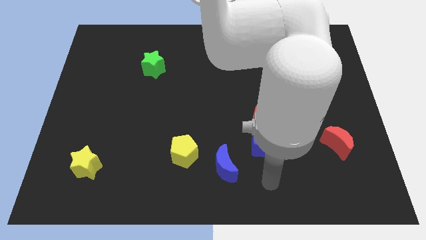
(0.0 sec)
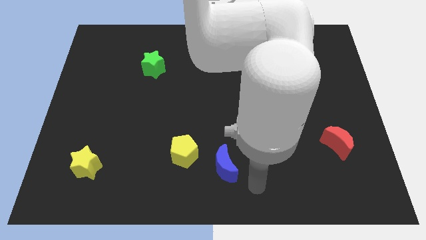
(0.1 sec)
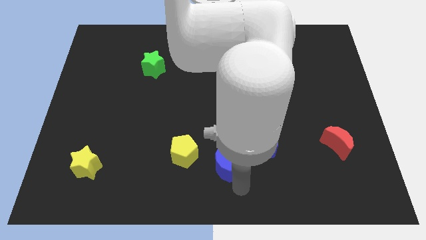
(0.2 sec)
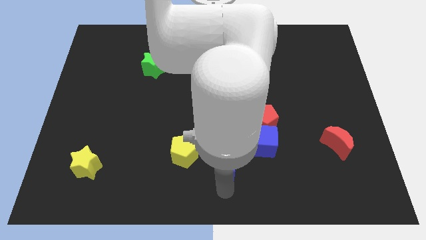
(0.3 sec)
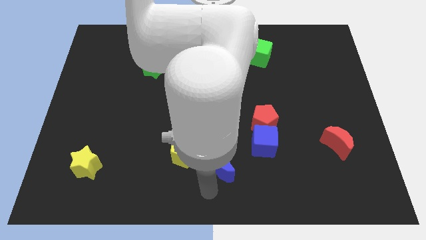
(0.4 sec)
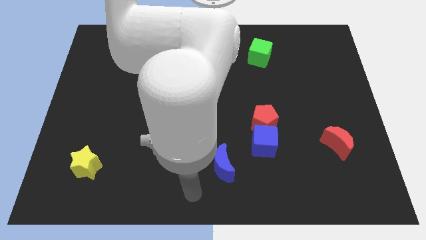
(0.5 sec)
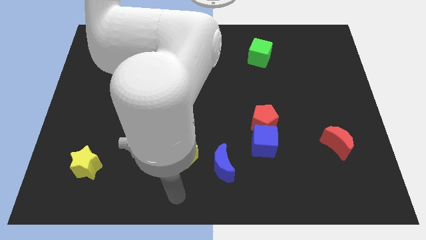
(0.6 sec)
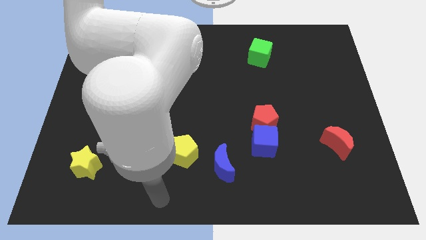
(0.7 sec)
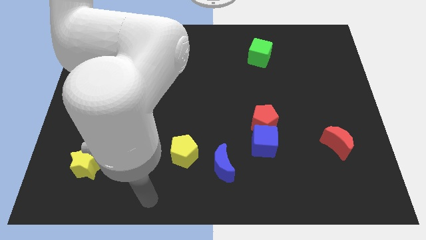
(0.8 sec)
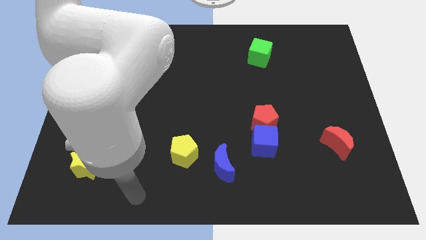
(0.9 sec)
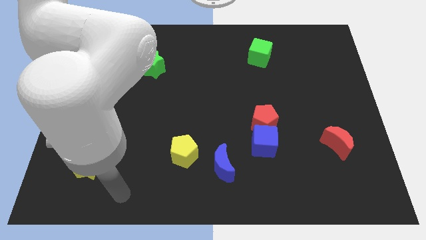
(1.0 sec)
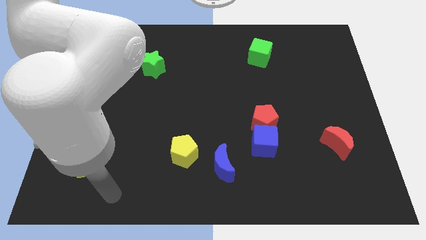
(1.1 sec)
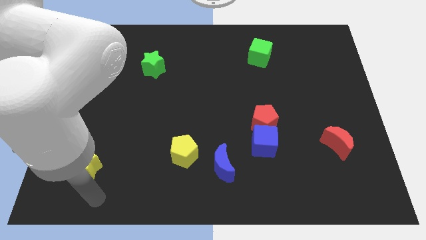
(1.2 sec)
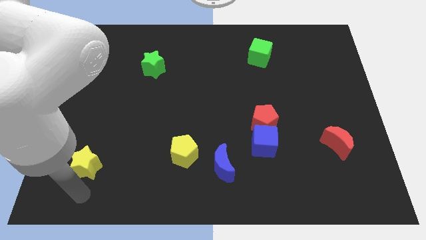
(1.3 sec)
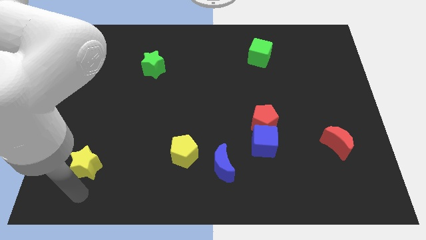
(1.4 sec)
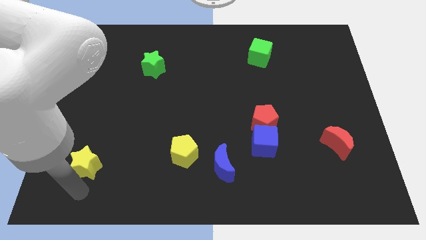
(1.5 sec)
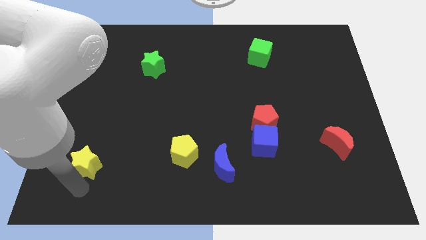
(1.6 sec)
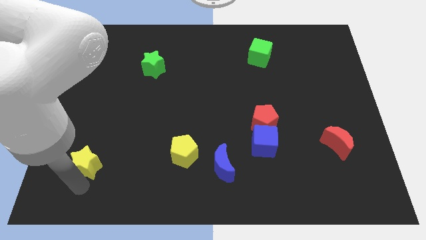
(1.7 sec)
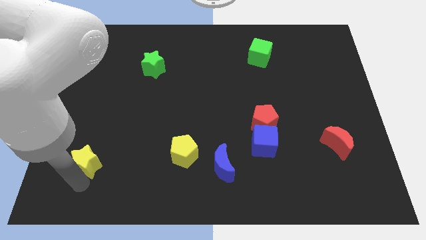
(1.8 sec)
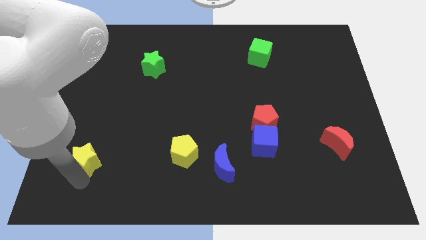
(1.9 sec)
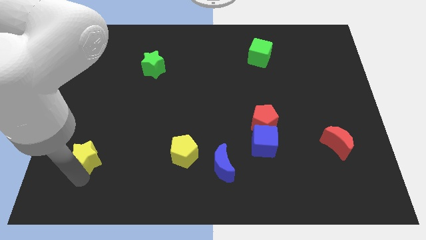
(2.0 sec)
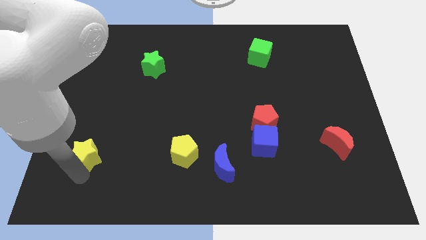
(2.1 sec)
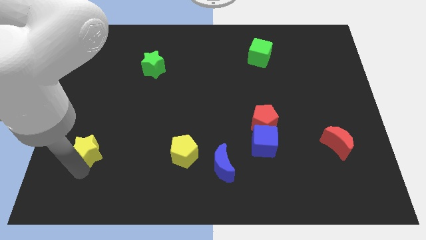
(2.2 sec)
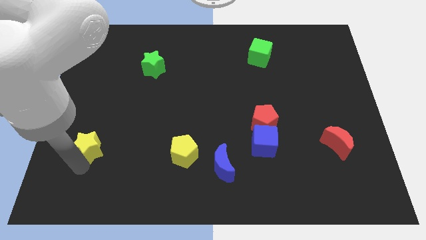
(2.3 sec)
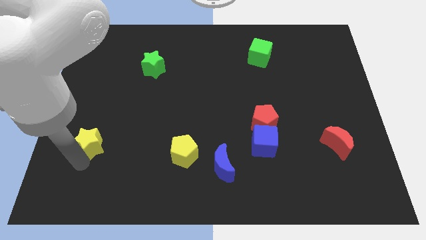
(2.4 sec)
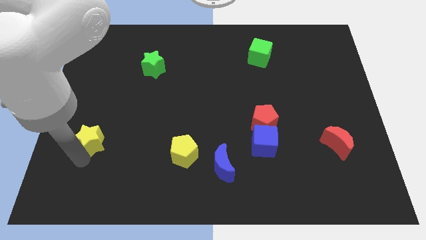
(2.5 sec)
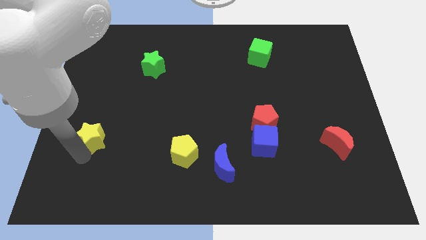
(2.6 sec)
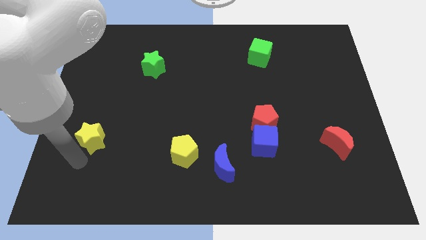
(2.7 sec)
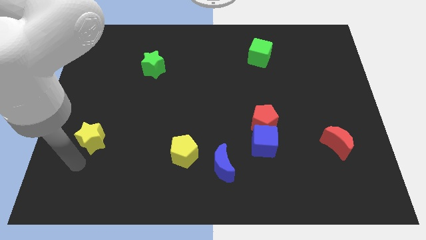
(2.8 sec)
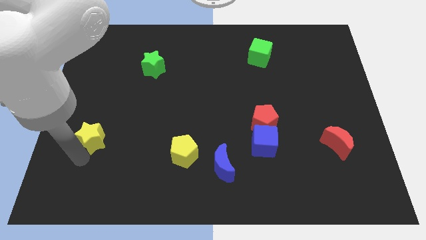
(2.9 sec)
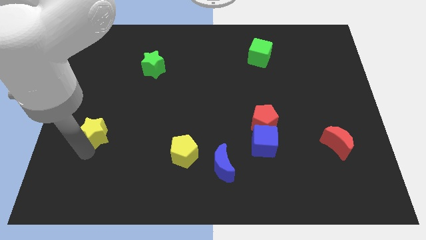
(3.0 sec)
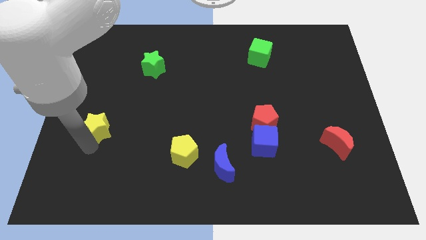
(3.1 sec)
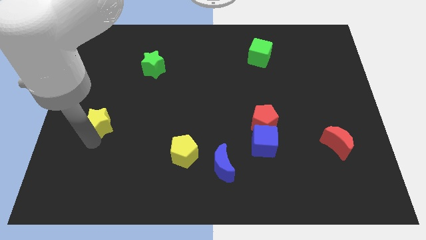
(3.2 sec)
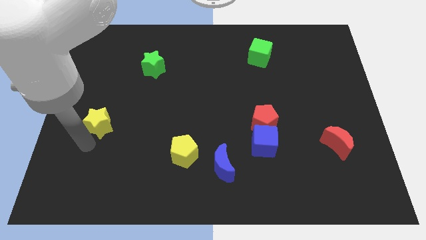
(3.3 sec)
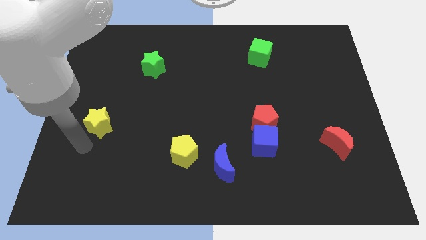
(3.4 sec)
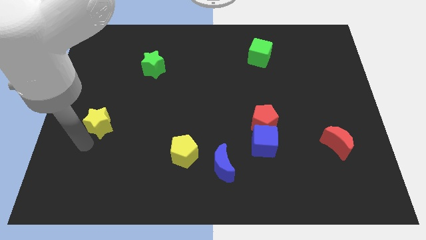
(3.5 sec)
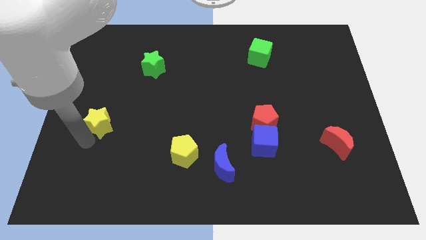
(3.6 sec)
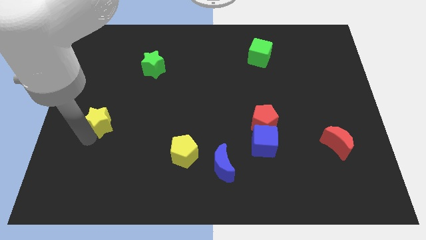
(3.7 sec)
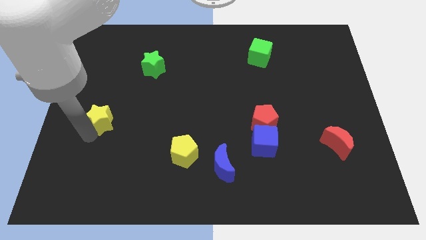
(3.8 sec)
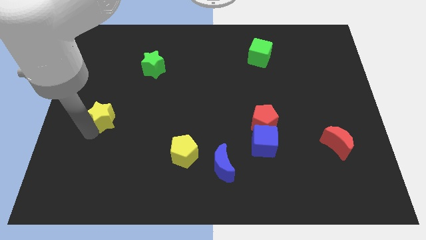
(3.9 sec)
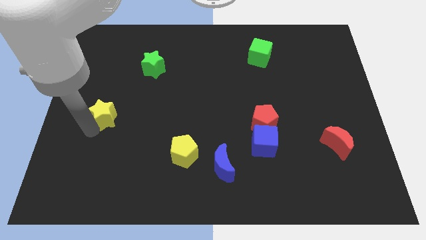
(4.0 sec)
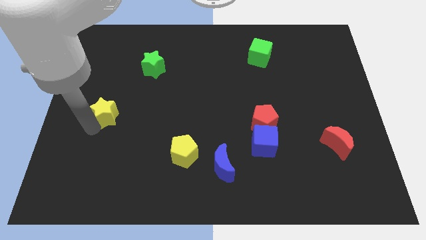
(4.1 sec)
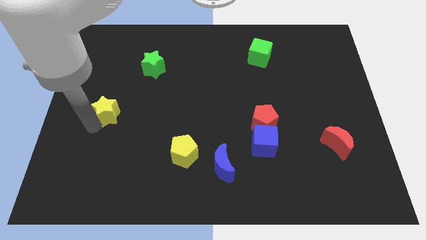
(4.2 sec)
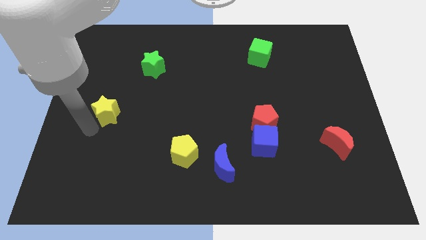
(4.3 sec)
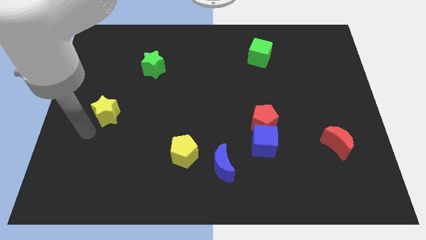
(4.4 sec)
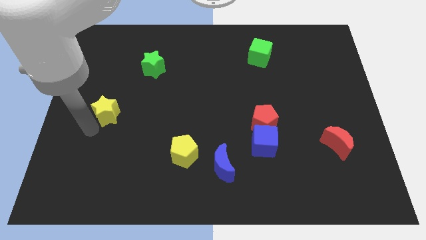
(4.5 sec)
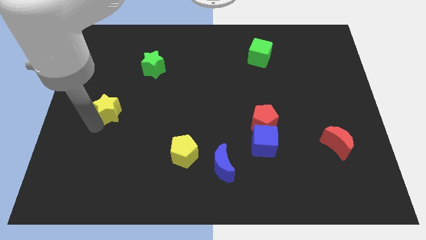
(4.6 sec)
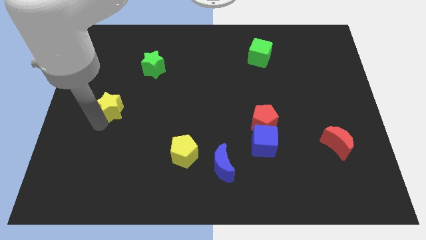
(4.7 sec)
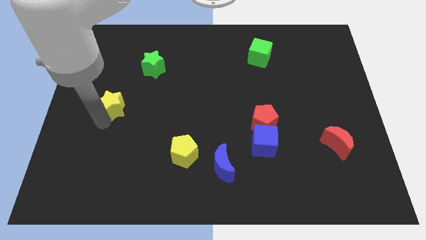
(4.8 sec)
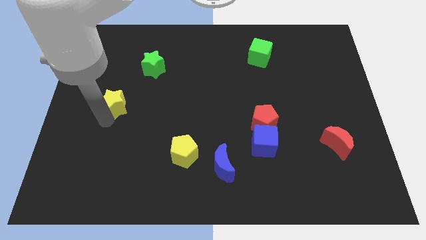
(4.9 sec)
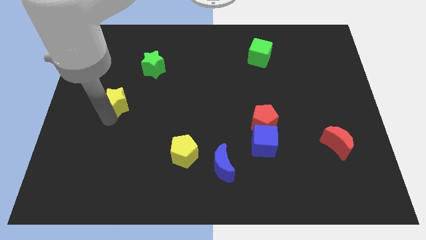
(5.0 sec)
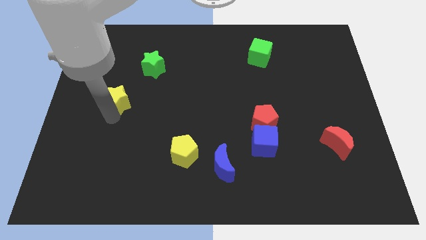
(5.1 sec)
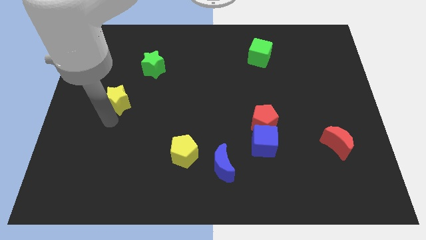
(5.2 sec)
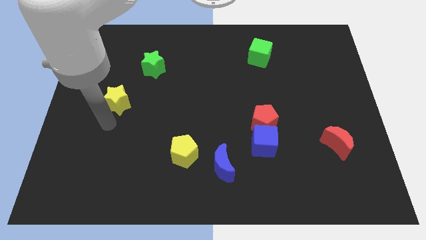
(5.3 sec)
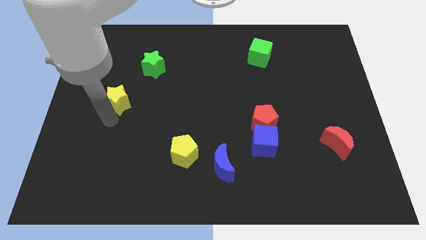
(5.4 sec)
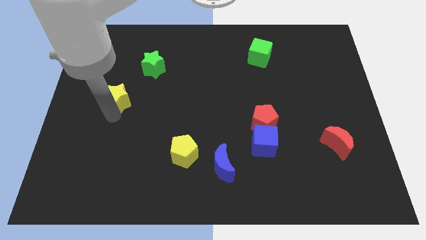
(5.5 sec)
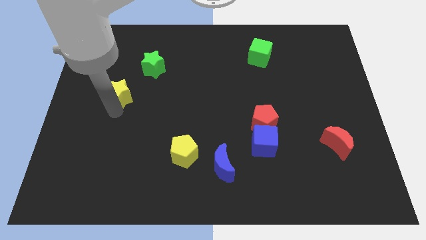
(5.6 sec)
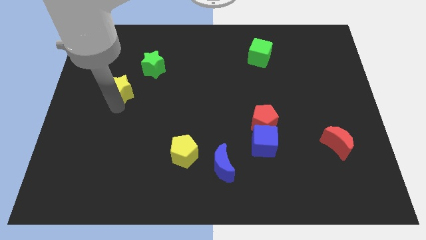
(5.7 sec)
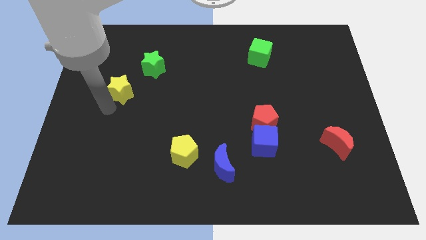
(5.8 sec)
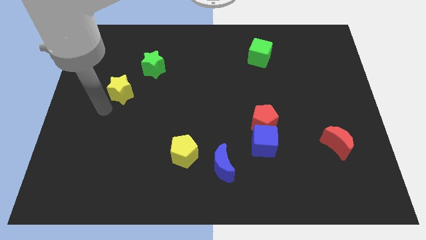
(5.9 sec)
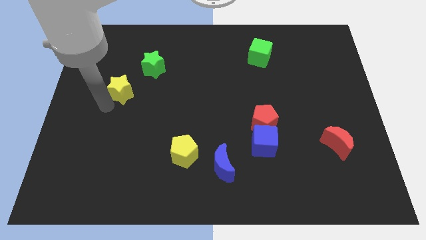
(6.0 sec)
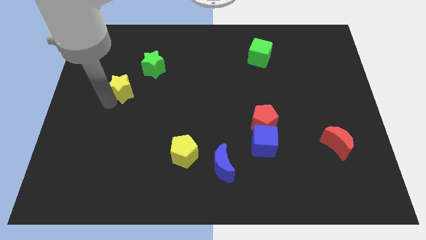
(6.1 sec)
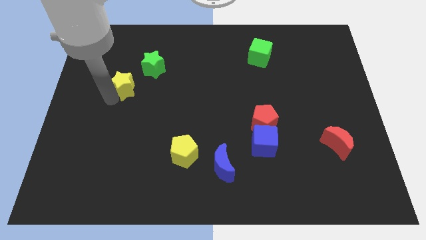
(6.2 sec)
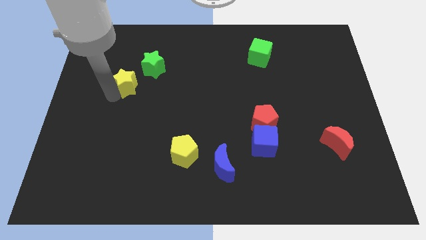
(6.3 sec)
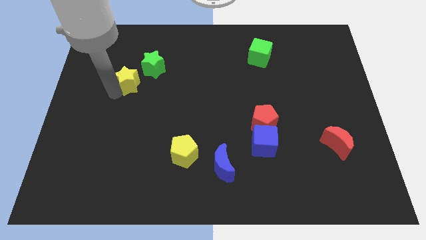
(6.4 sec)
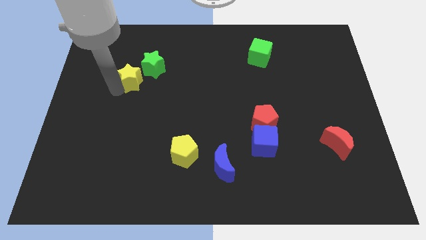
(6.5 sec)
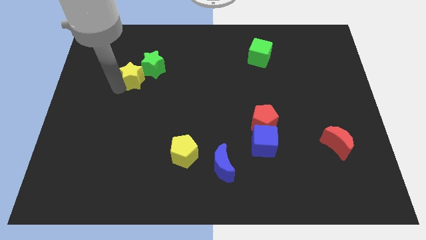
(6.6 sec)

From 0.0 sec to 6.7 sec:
move the yellow star to the green star
